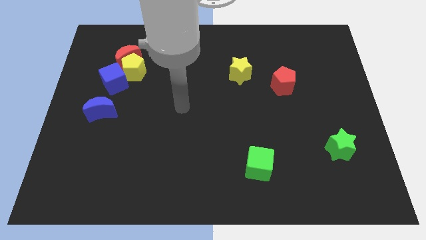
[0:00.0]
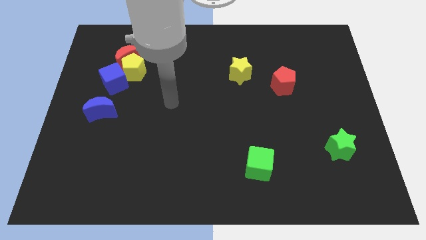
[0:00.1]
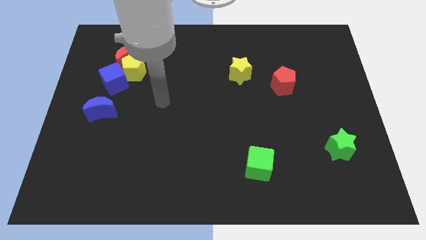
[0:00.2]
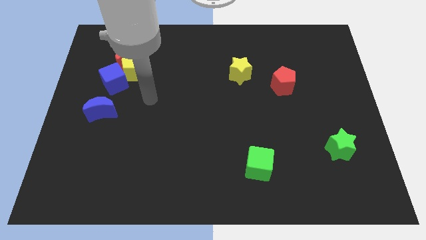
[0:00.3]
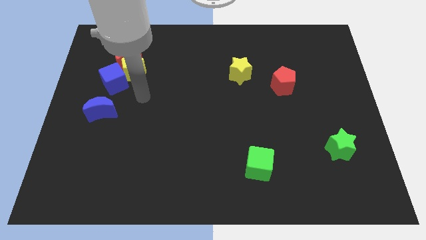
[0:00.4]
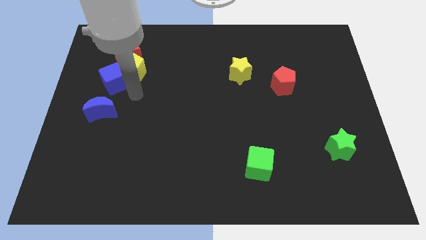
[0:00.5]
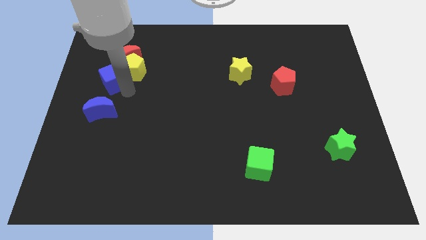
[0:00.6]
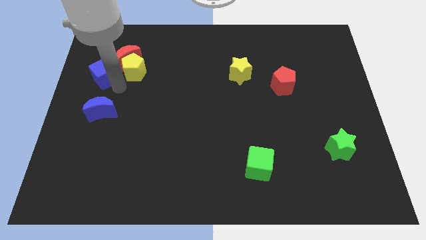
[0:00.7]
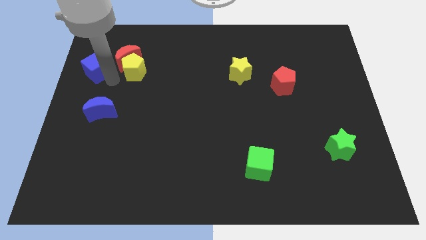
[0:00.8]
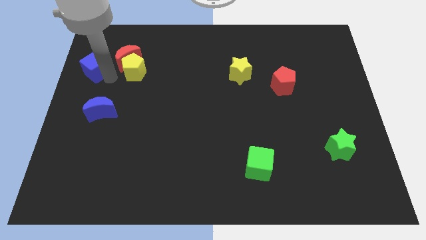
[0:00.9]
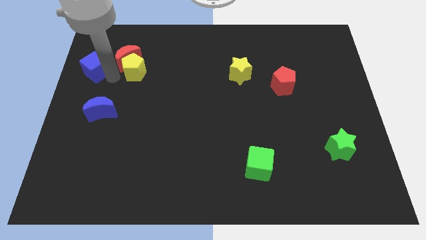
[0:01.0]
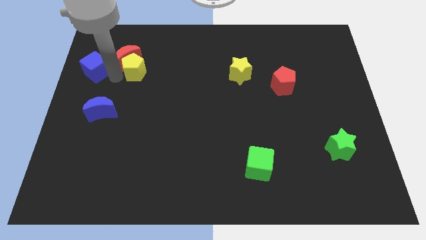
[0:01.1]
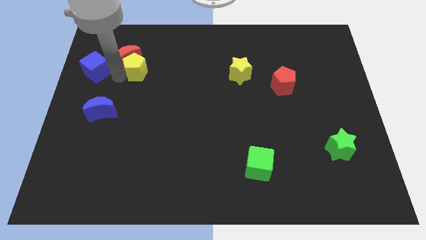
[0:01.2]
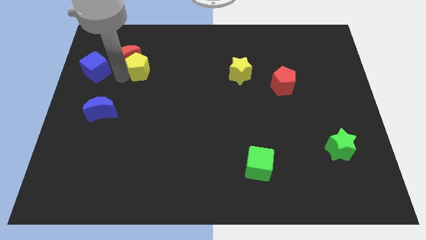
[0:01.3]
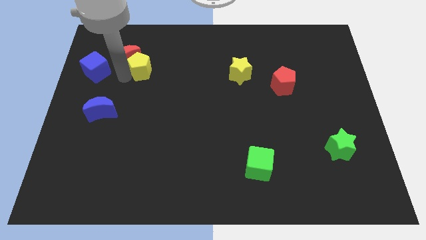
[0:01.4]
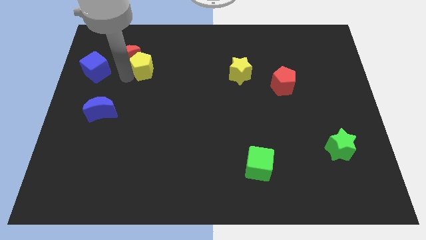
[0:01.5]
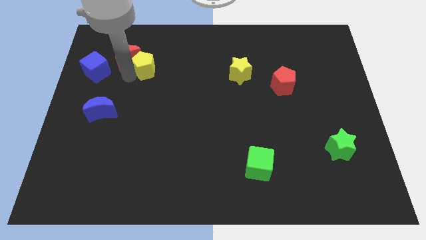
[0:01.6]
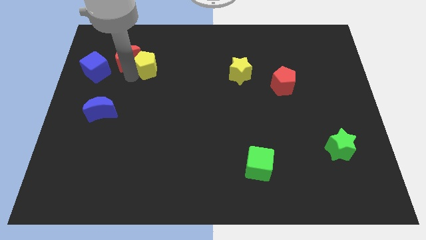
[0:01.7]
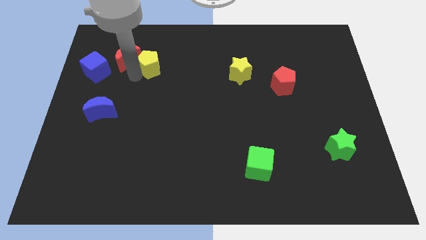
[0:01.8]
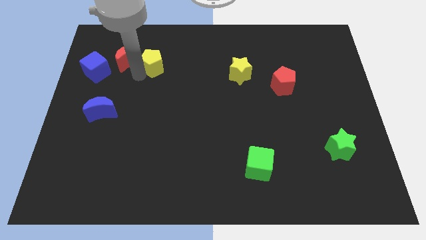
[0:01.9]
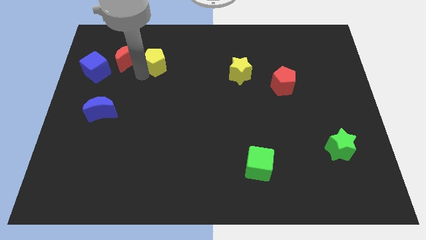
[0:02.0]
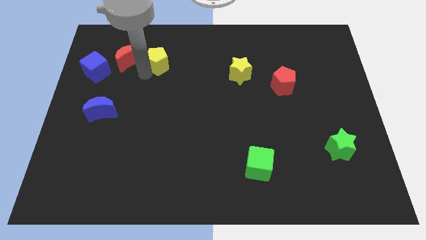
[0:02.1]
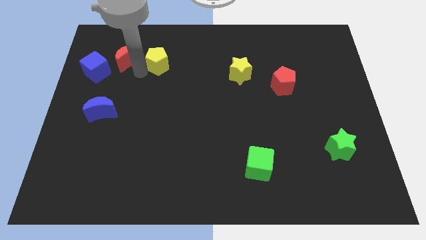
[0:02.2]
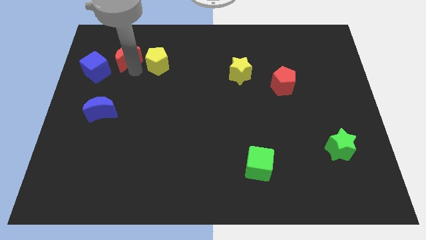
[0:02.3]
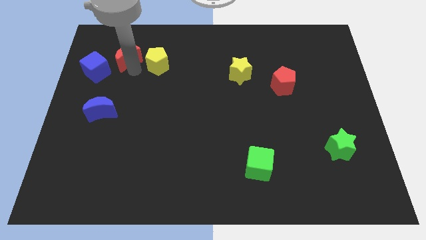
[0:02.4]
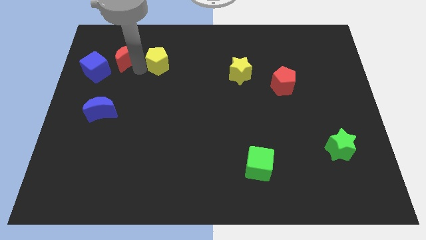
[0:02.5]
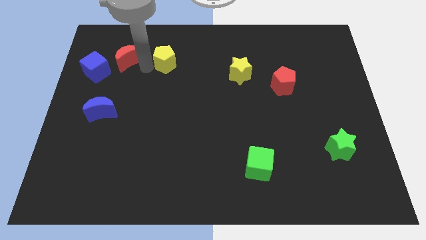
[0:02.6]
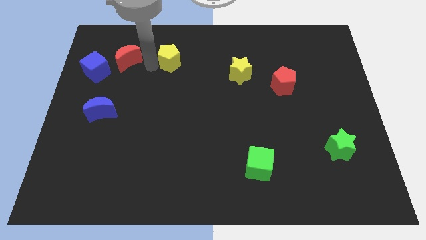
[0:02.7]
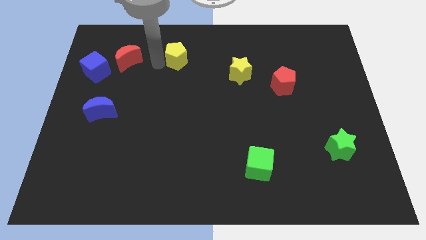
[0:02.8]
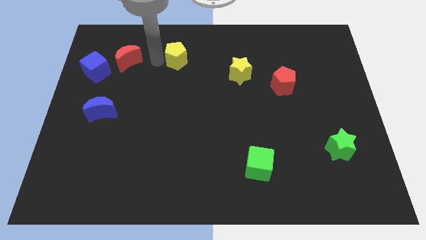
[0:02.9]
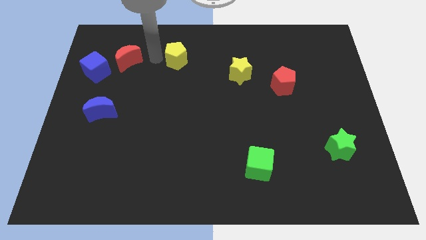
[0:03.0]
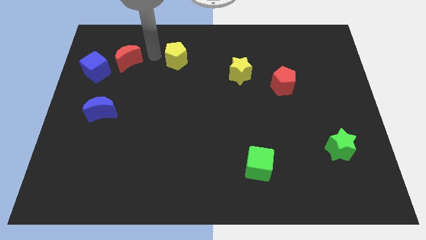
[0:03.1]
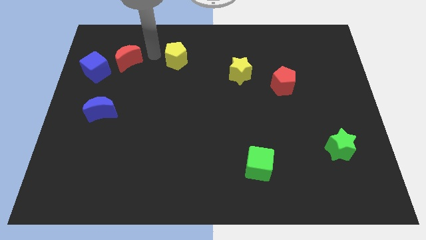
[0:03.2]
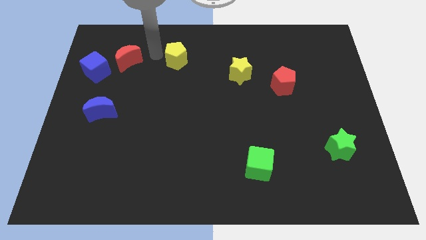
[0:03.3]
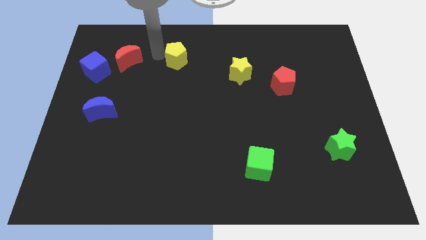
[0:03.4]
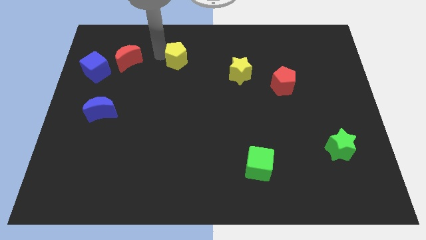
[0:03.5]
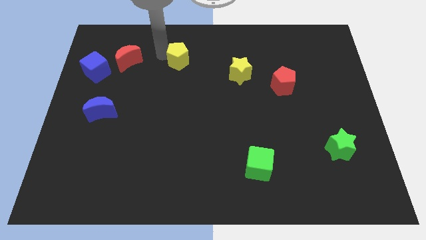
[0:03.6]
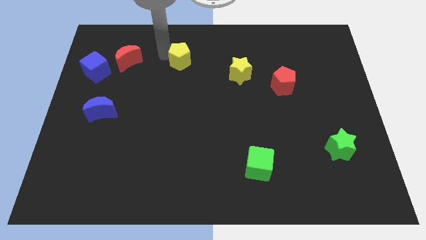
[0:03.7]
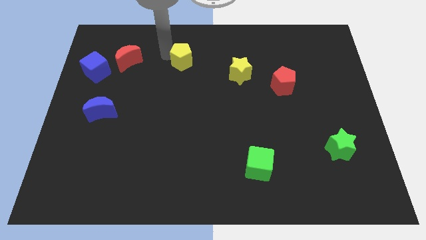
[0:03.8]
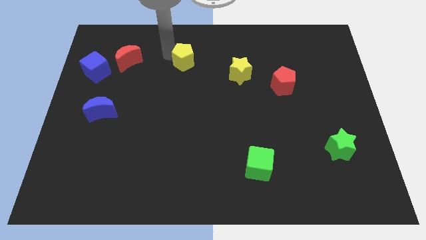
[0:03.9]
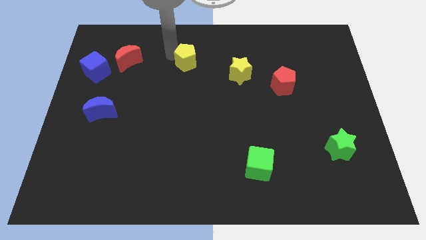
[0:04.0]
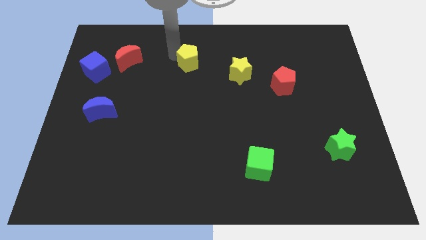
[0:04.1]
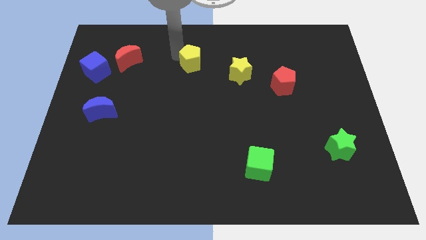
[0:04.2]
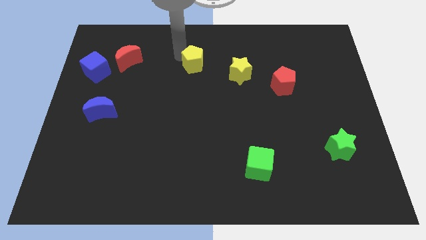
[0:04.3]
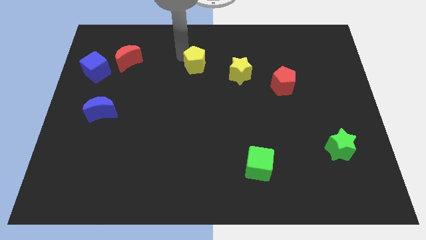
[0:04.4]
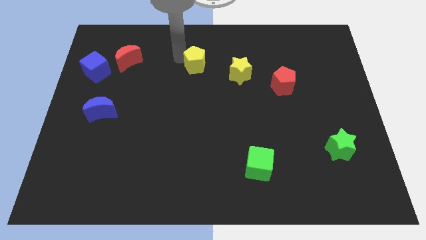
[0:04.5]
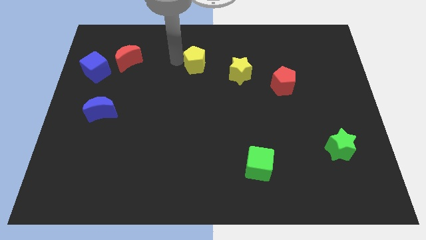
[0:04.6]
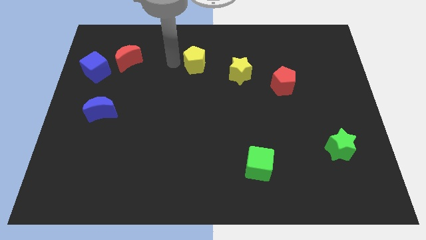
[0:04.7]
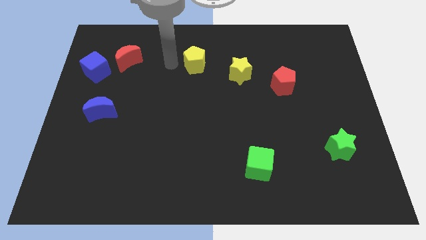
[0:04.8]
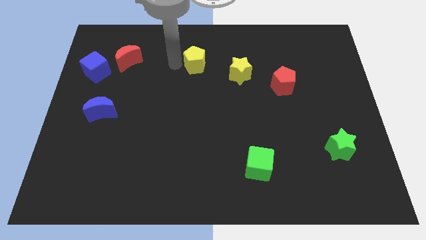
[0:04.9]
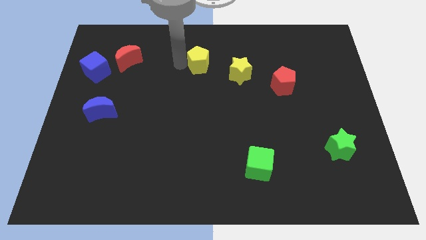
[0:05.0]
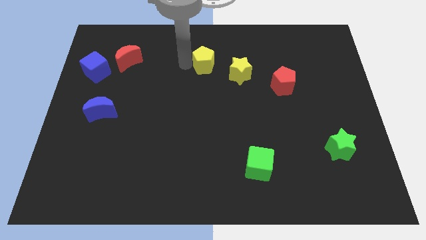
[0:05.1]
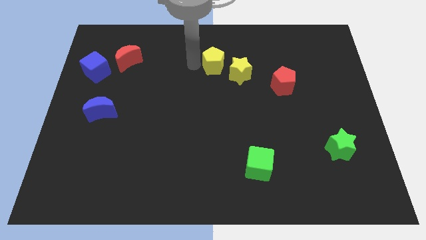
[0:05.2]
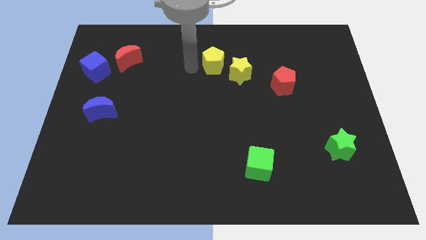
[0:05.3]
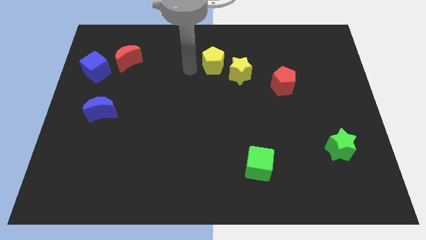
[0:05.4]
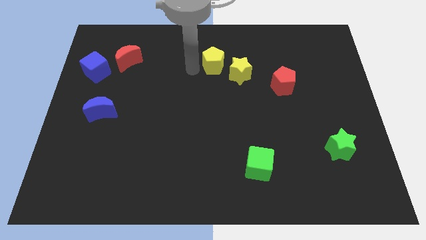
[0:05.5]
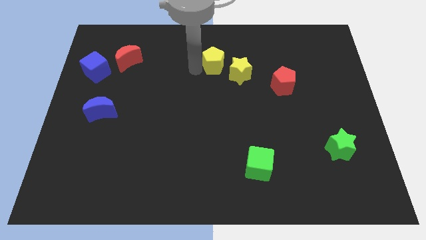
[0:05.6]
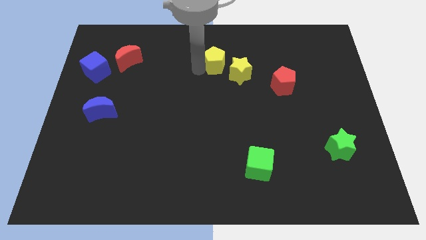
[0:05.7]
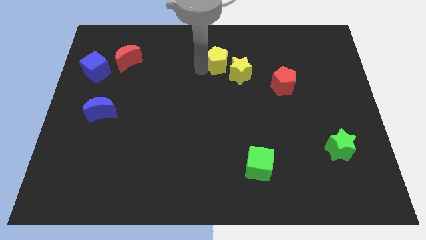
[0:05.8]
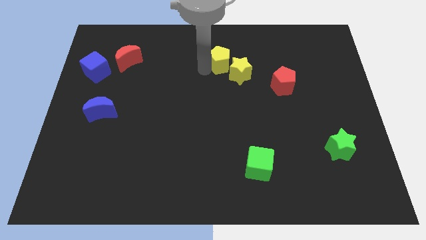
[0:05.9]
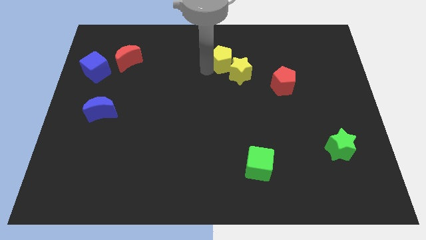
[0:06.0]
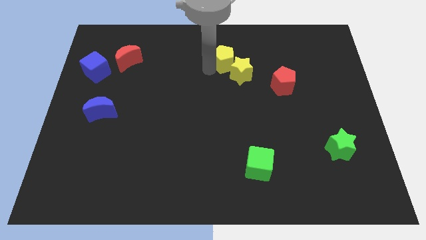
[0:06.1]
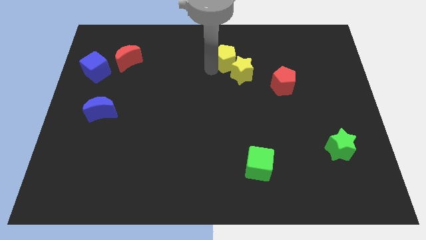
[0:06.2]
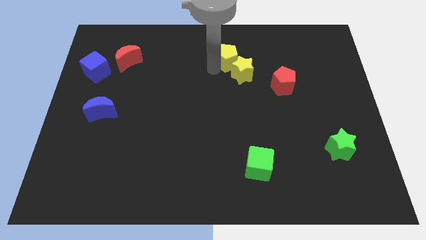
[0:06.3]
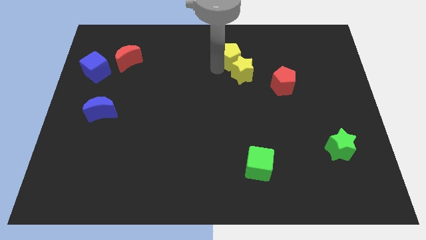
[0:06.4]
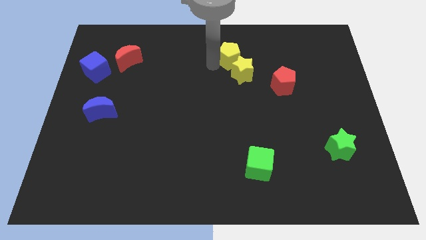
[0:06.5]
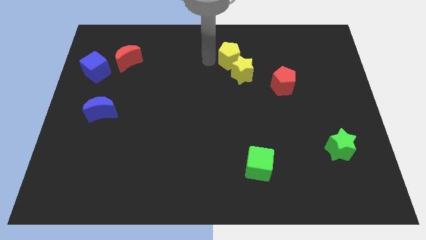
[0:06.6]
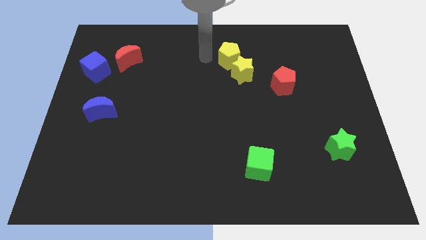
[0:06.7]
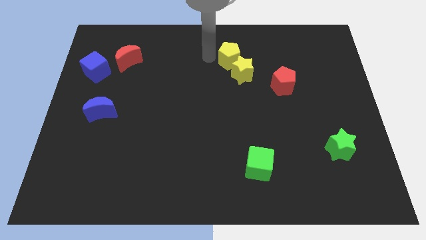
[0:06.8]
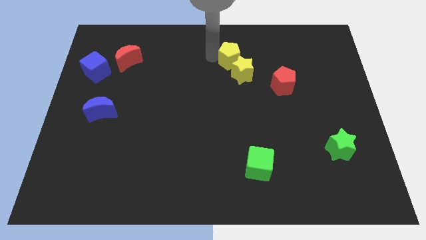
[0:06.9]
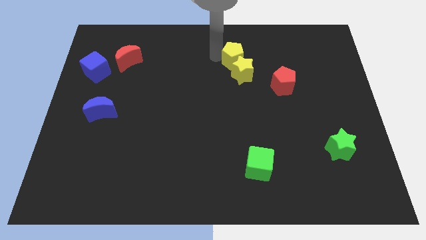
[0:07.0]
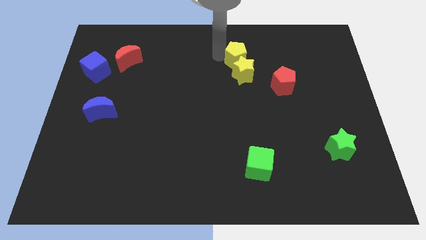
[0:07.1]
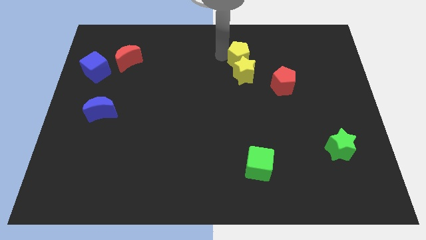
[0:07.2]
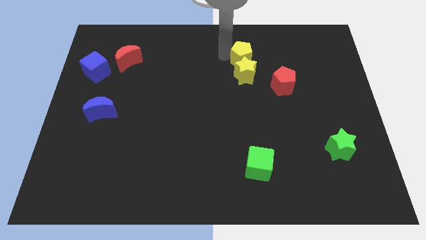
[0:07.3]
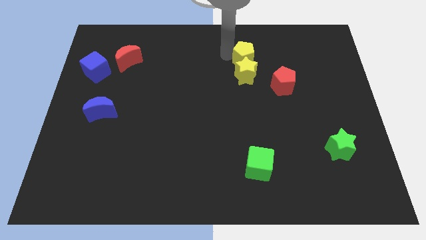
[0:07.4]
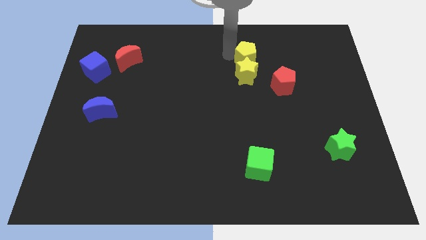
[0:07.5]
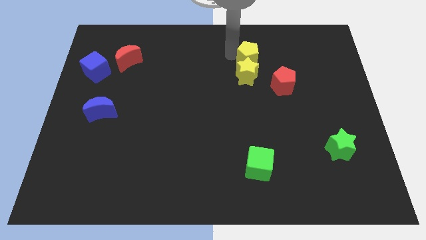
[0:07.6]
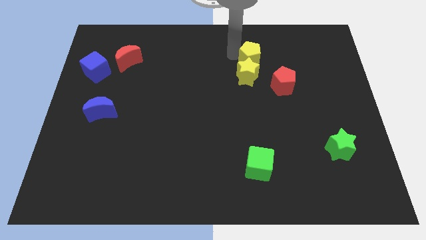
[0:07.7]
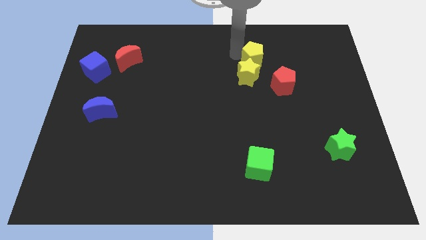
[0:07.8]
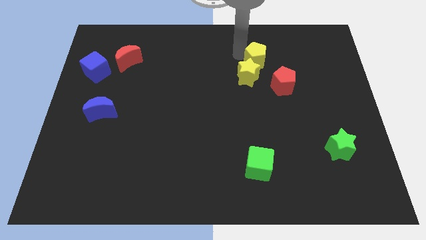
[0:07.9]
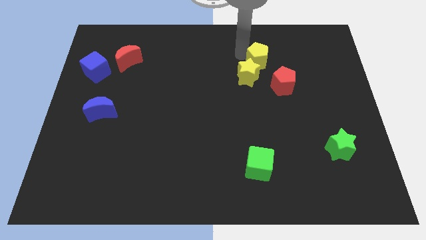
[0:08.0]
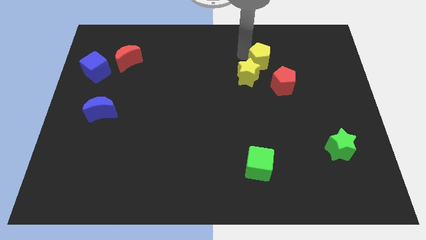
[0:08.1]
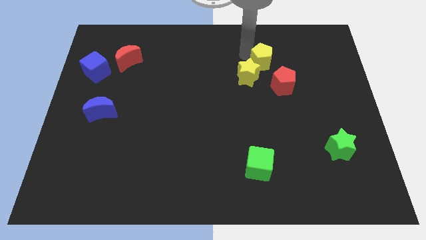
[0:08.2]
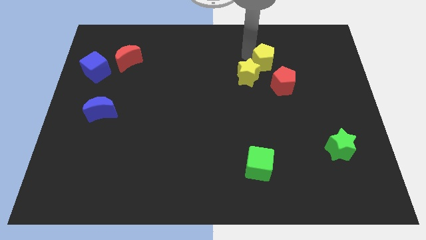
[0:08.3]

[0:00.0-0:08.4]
slide the yellow pentagon to the right of the yellow star
